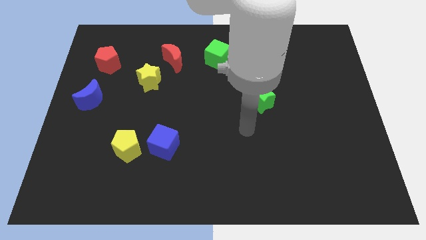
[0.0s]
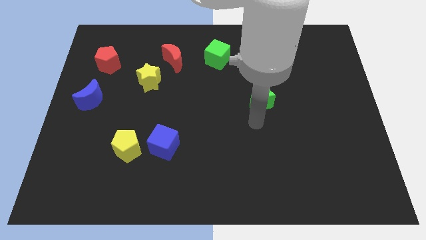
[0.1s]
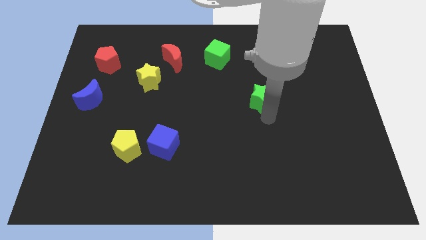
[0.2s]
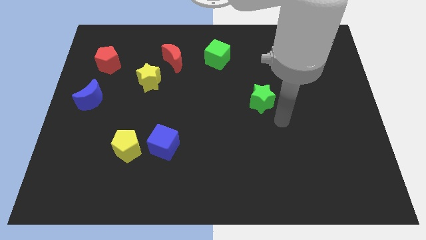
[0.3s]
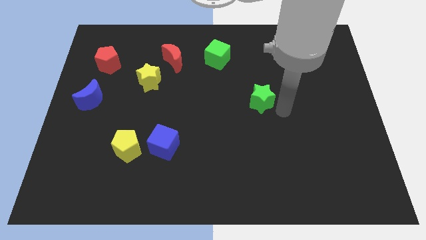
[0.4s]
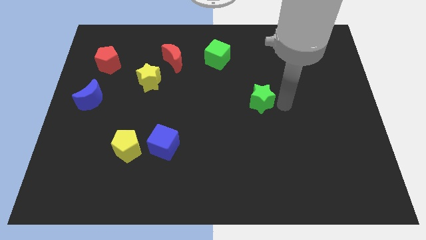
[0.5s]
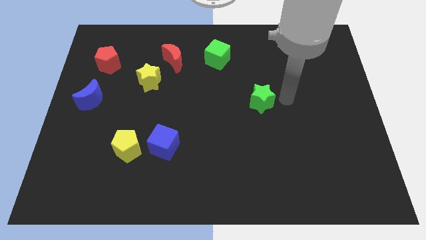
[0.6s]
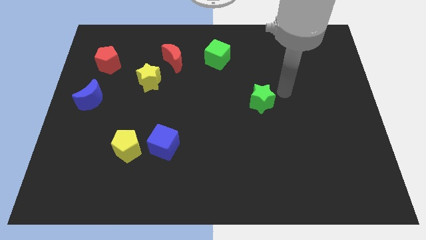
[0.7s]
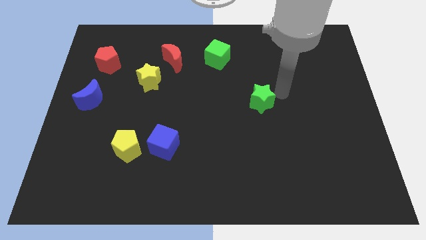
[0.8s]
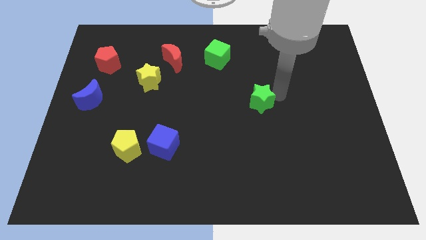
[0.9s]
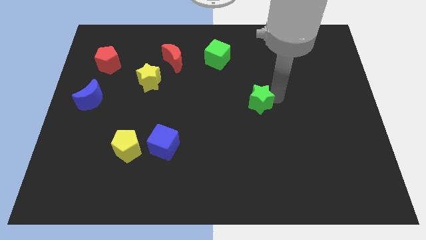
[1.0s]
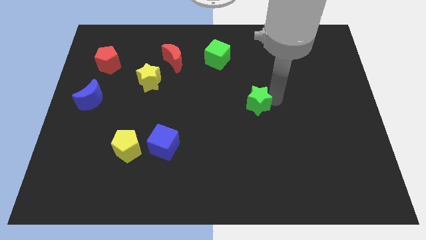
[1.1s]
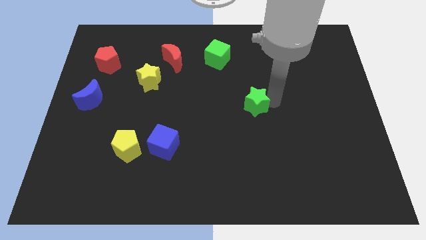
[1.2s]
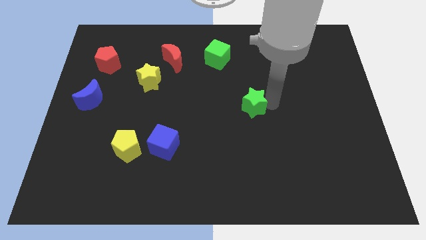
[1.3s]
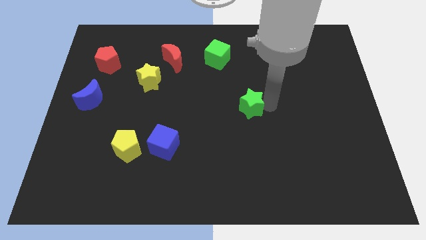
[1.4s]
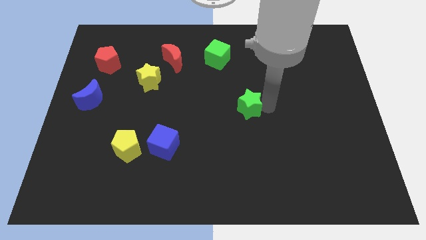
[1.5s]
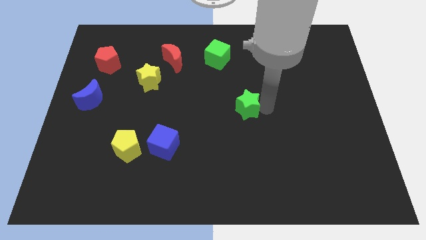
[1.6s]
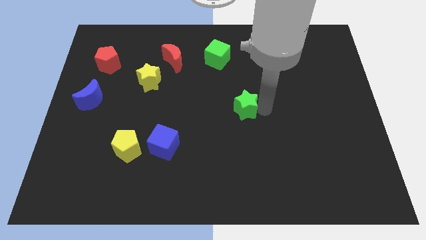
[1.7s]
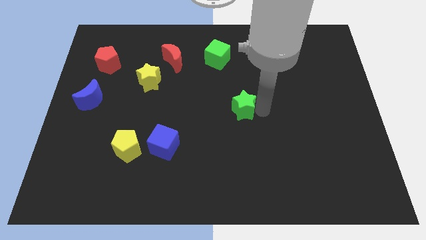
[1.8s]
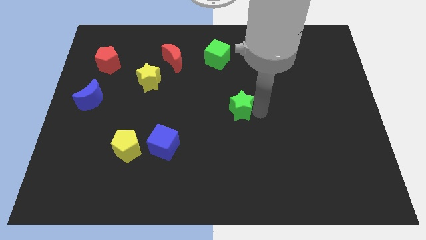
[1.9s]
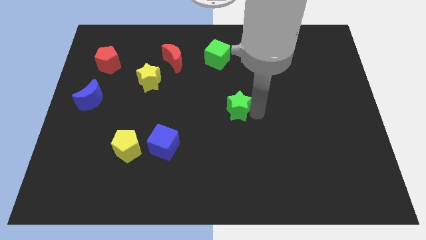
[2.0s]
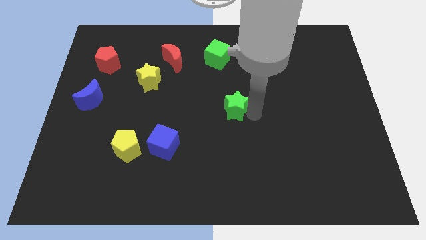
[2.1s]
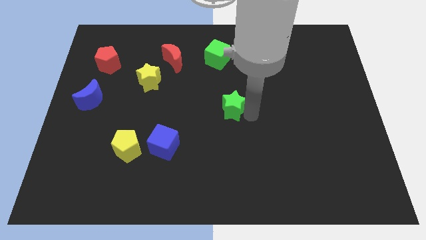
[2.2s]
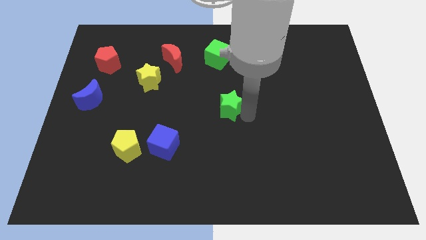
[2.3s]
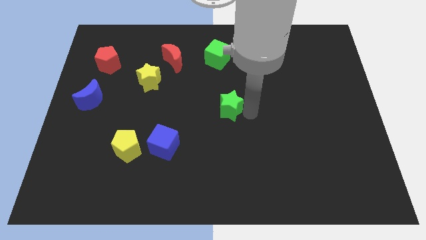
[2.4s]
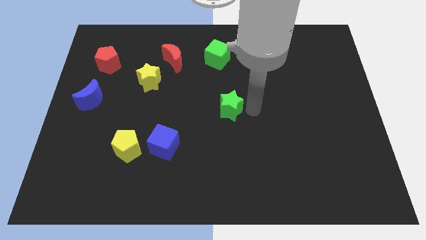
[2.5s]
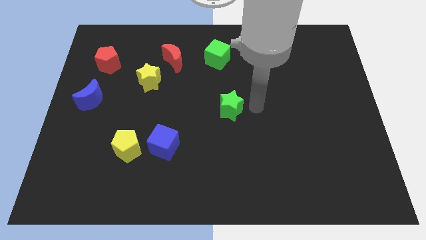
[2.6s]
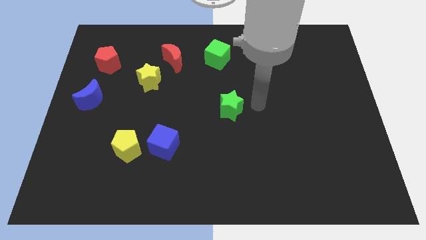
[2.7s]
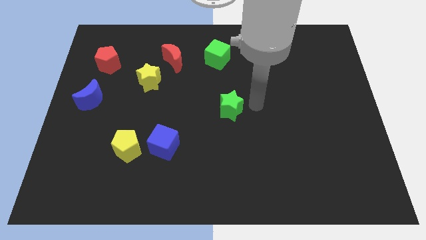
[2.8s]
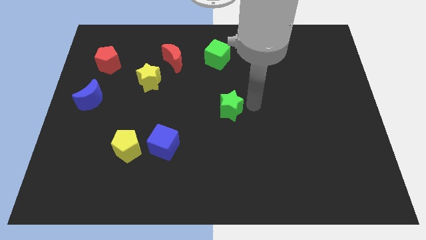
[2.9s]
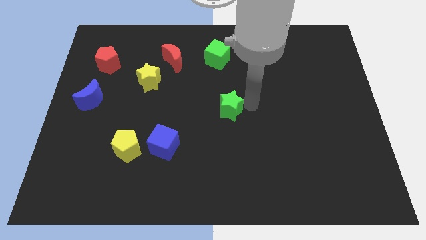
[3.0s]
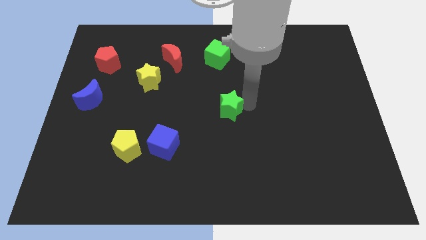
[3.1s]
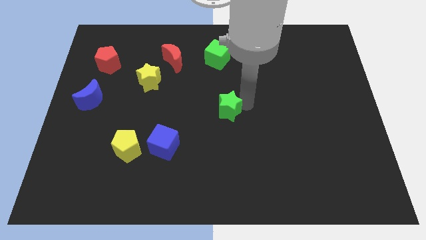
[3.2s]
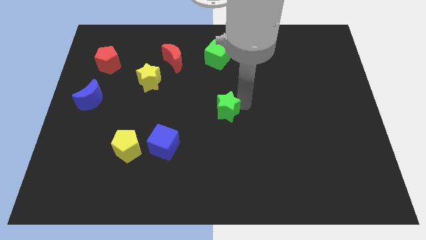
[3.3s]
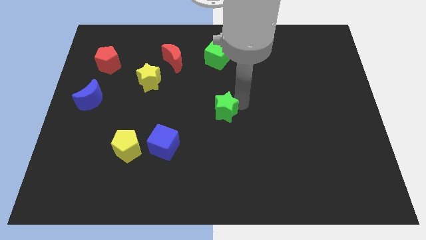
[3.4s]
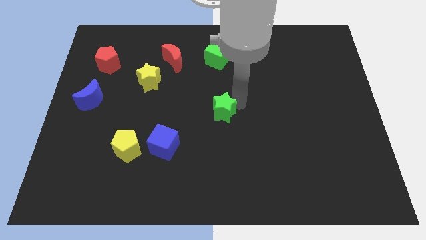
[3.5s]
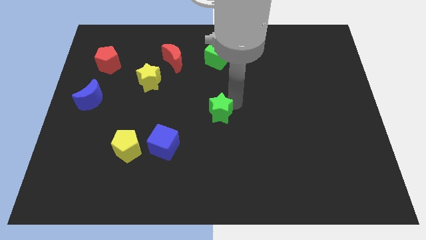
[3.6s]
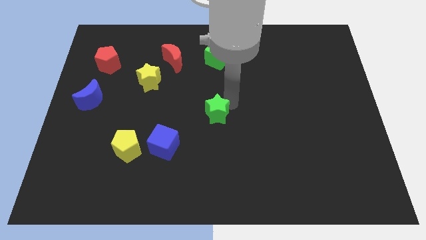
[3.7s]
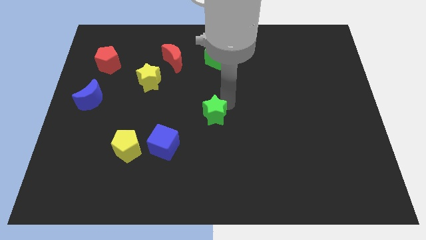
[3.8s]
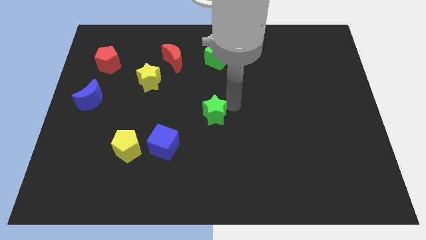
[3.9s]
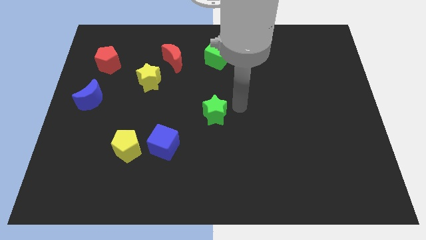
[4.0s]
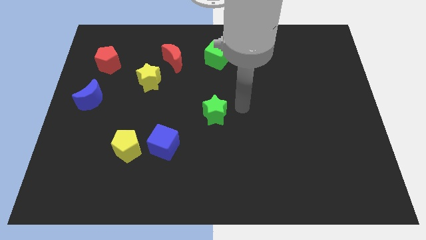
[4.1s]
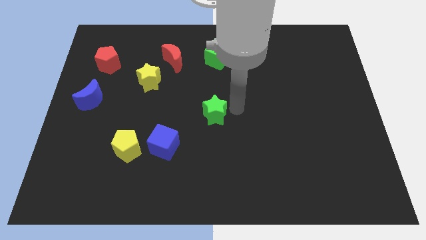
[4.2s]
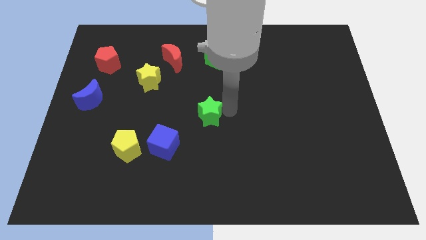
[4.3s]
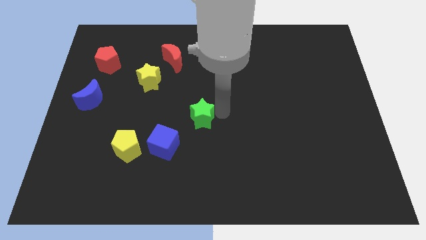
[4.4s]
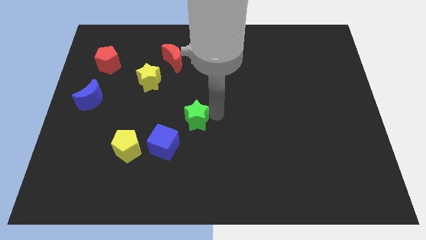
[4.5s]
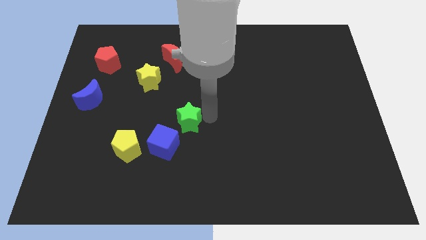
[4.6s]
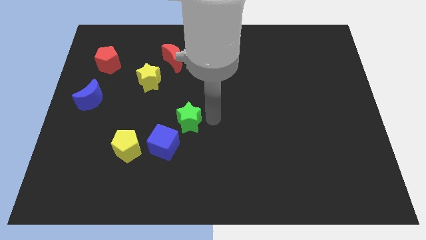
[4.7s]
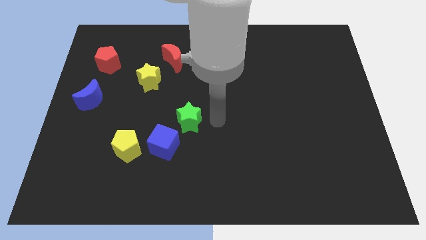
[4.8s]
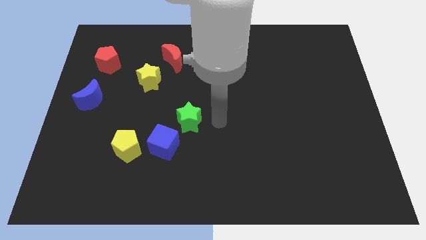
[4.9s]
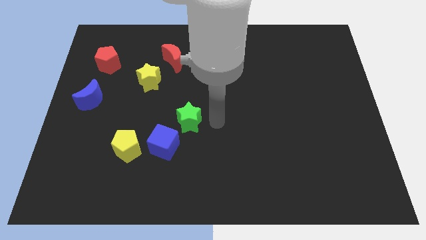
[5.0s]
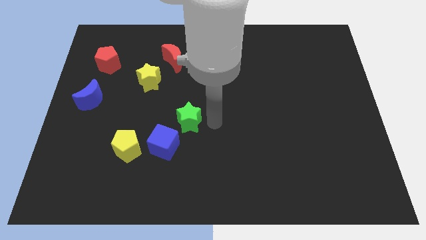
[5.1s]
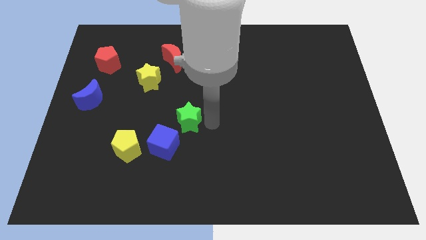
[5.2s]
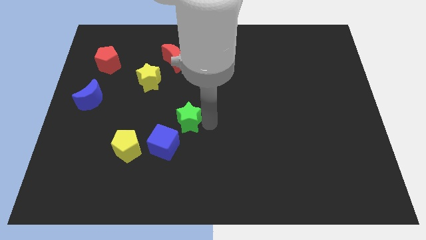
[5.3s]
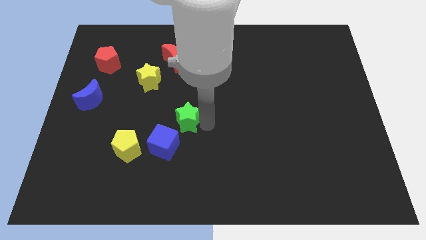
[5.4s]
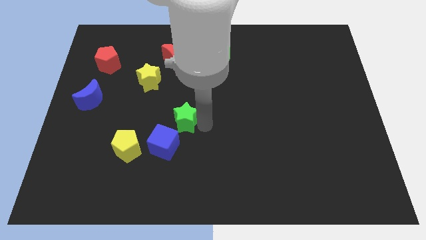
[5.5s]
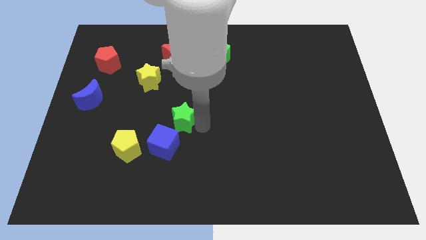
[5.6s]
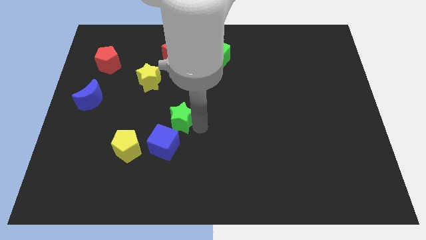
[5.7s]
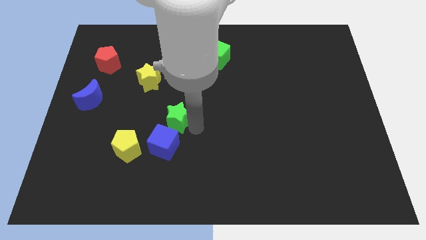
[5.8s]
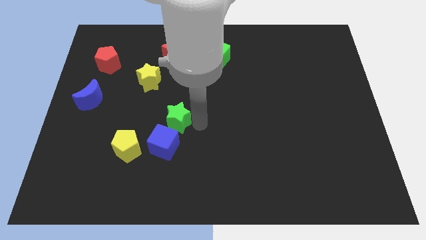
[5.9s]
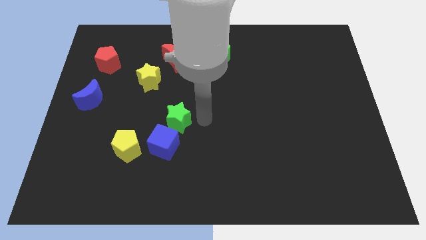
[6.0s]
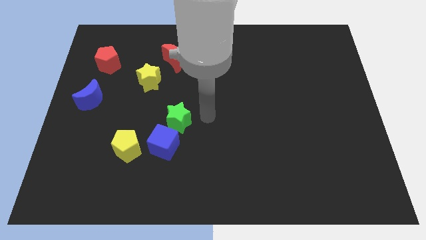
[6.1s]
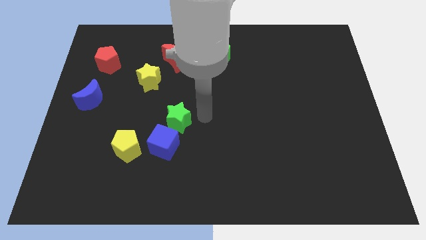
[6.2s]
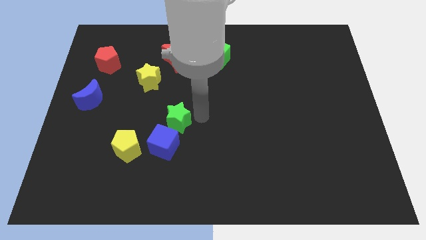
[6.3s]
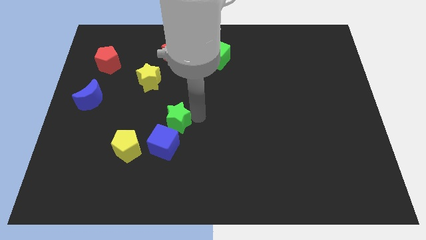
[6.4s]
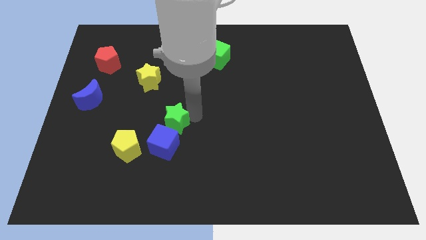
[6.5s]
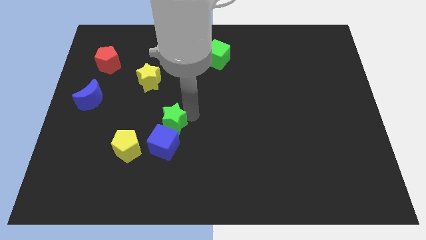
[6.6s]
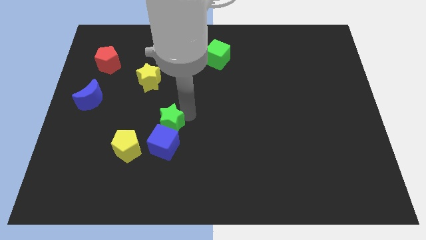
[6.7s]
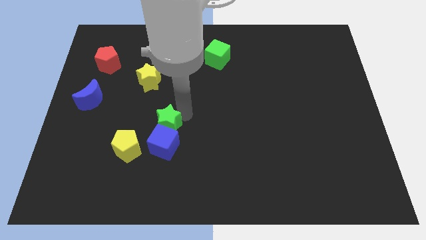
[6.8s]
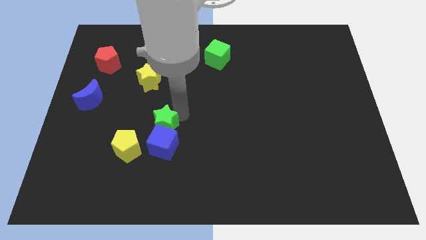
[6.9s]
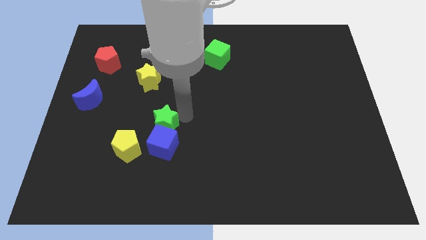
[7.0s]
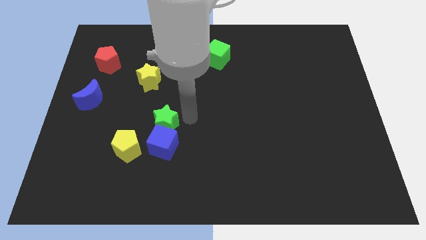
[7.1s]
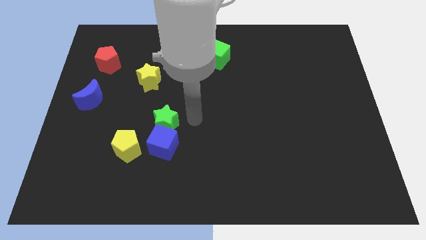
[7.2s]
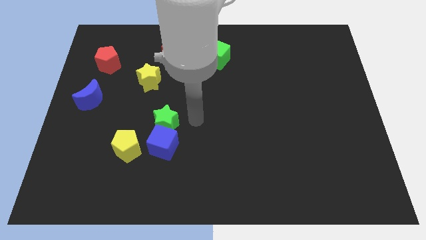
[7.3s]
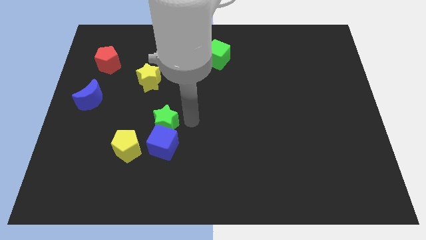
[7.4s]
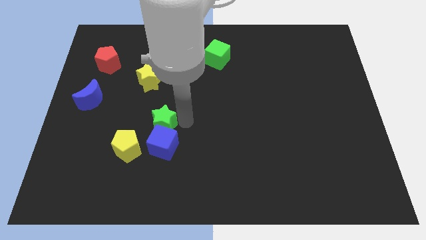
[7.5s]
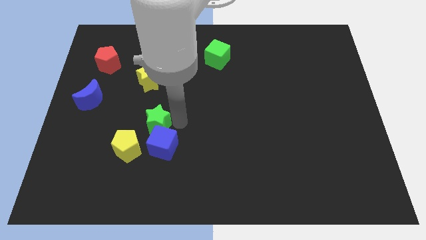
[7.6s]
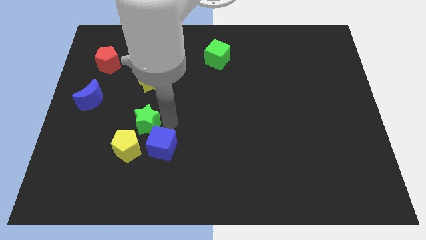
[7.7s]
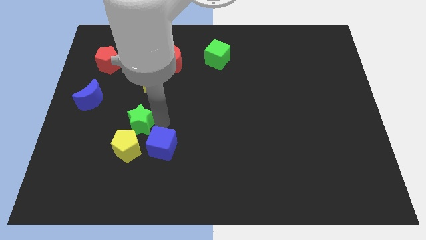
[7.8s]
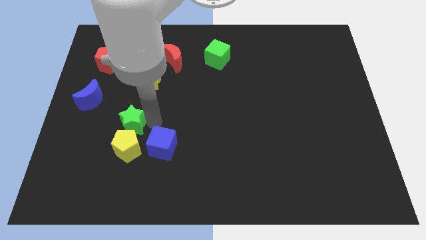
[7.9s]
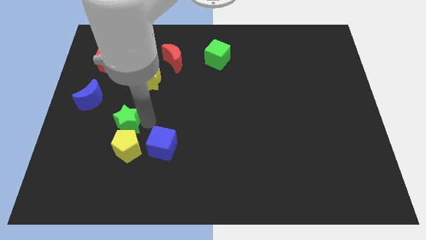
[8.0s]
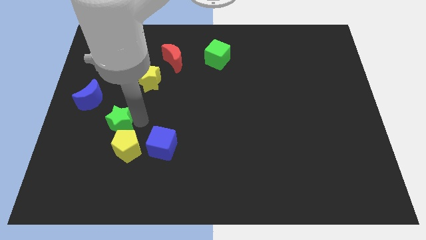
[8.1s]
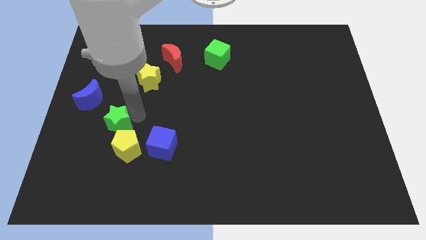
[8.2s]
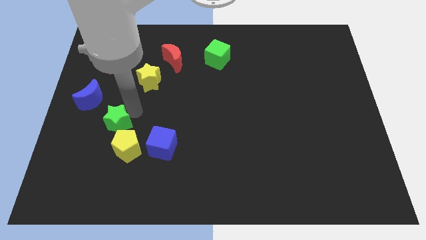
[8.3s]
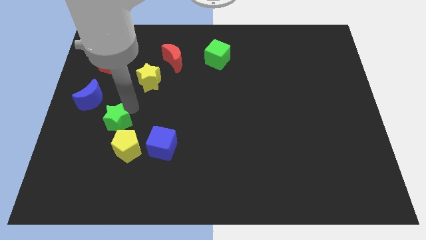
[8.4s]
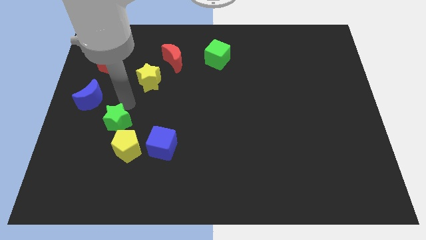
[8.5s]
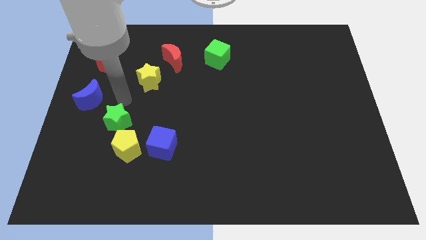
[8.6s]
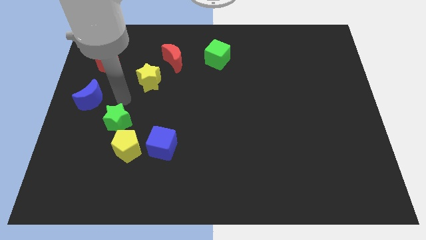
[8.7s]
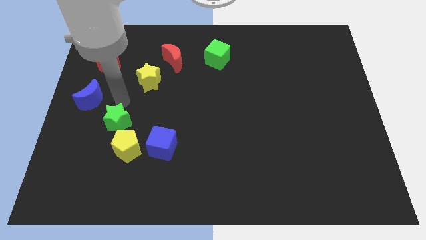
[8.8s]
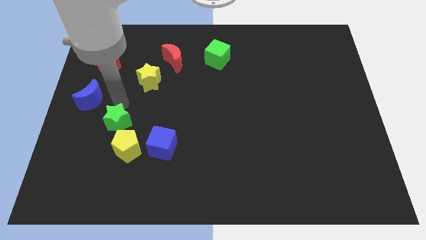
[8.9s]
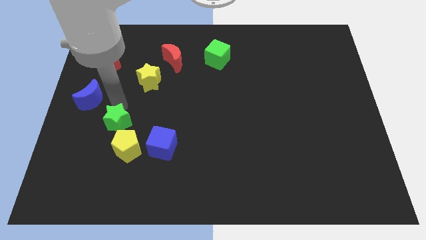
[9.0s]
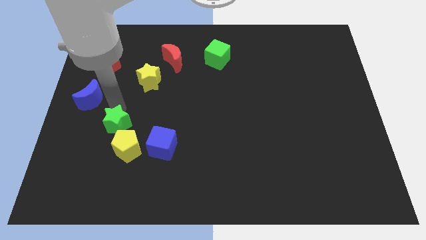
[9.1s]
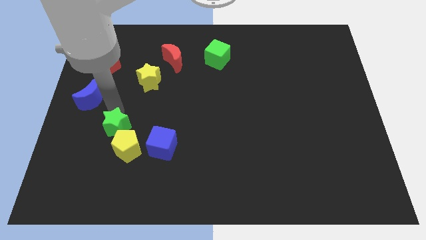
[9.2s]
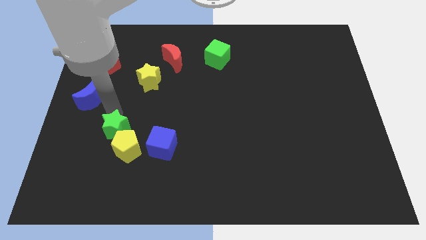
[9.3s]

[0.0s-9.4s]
push the green star just left of the blue cube
